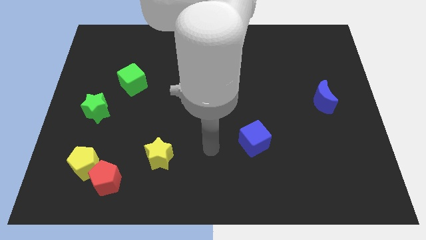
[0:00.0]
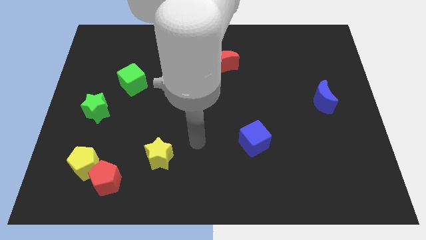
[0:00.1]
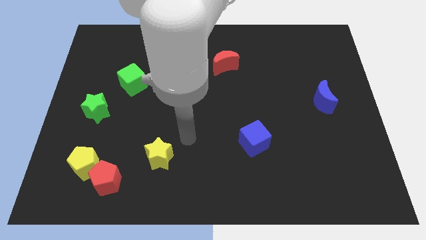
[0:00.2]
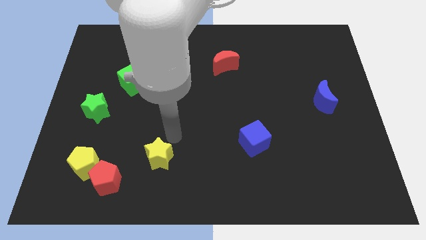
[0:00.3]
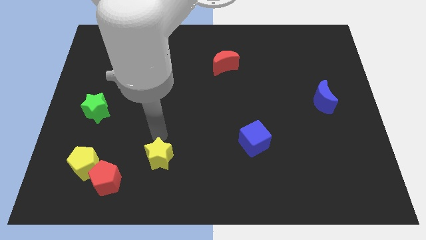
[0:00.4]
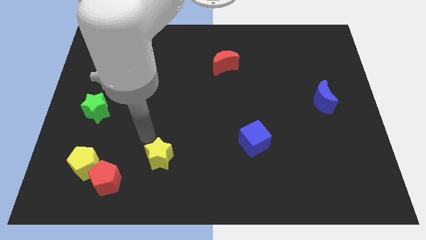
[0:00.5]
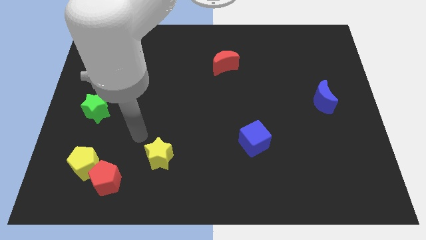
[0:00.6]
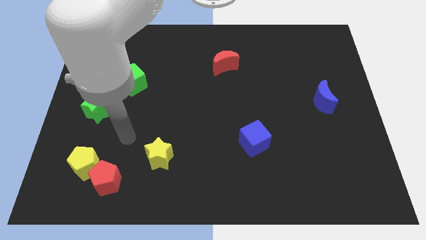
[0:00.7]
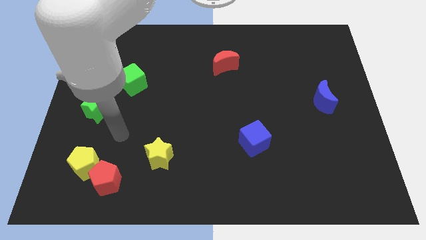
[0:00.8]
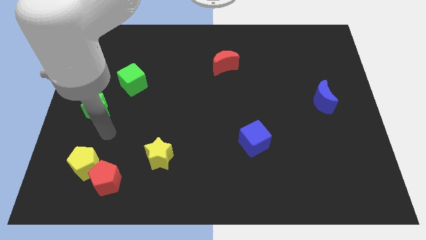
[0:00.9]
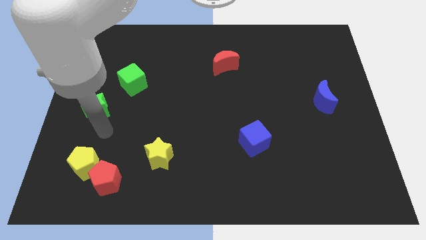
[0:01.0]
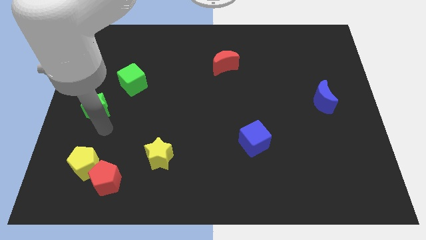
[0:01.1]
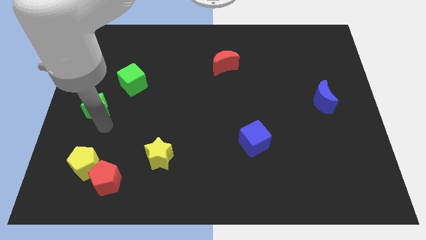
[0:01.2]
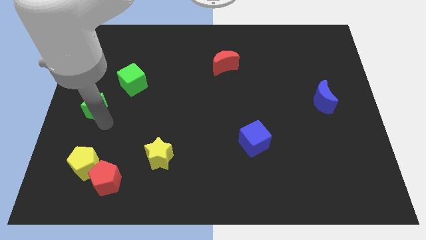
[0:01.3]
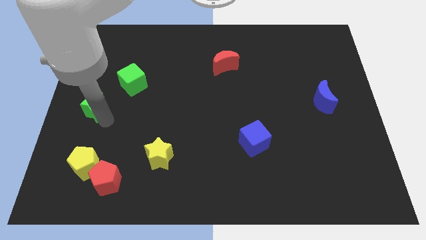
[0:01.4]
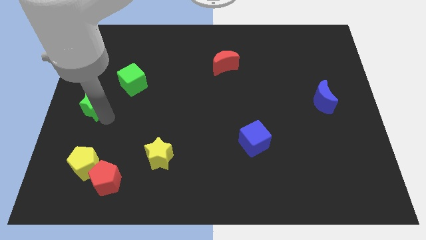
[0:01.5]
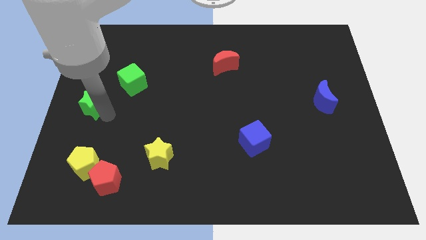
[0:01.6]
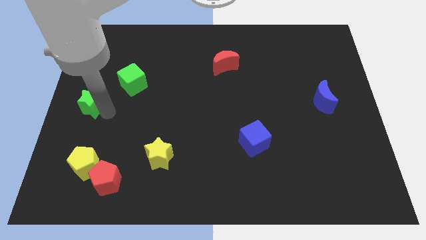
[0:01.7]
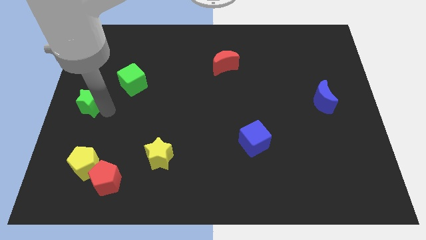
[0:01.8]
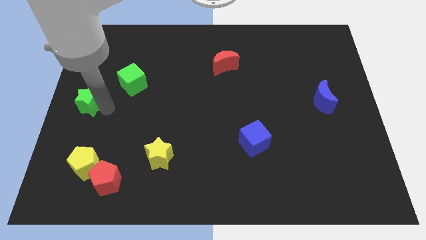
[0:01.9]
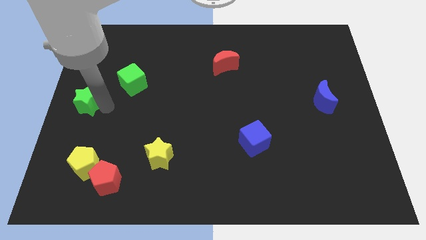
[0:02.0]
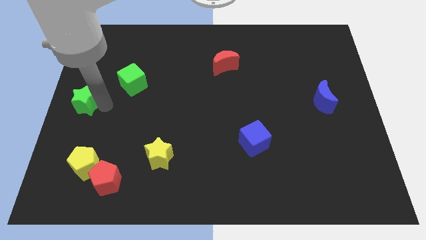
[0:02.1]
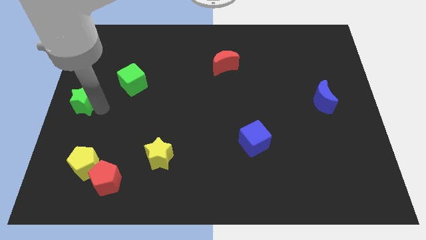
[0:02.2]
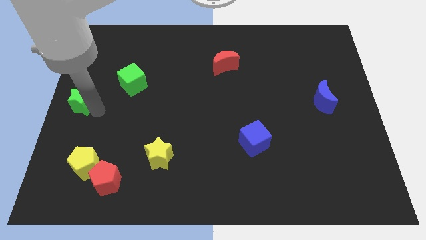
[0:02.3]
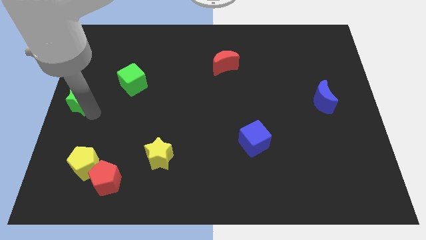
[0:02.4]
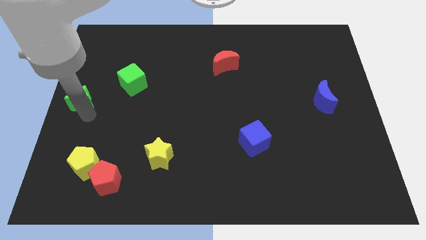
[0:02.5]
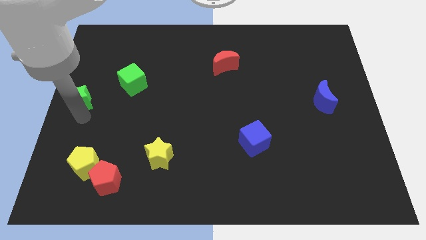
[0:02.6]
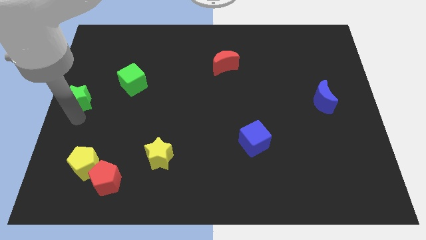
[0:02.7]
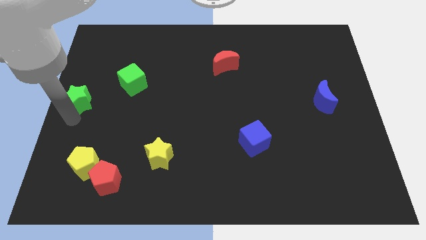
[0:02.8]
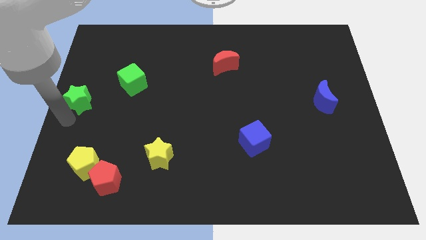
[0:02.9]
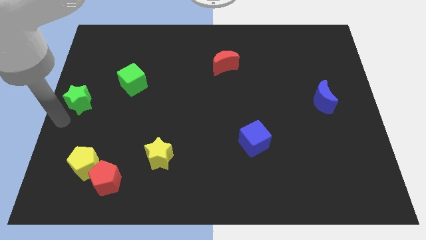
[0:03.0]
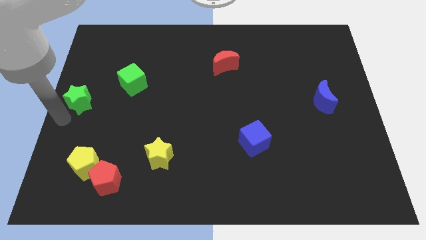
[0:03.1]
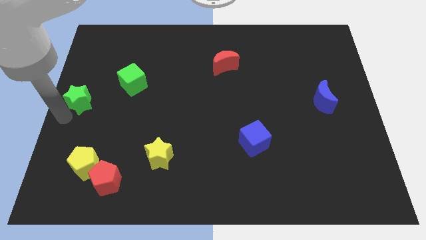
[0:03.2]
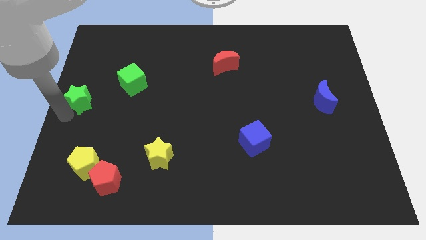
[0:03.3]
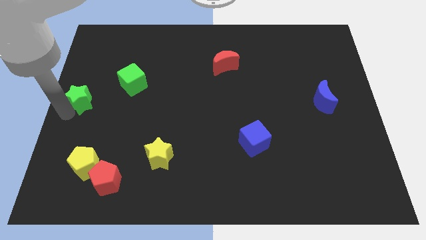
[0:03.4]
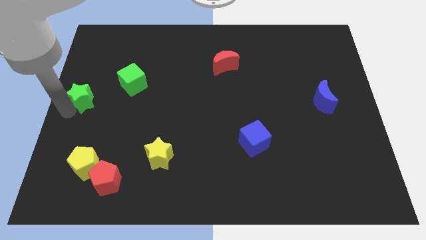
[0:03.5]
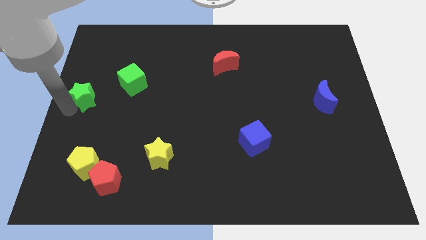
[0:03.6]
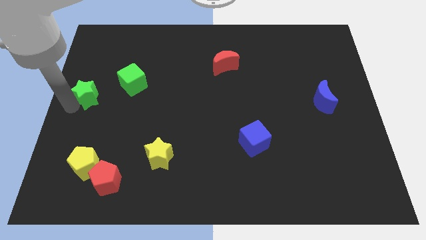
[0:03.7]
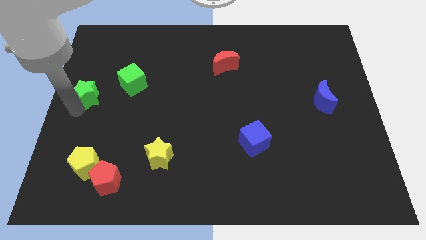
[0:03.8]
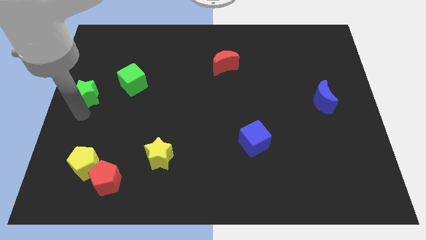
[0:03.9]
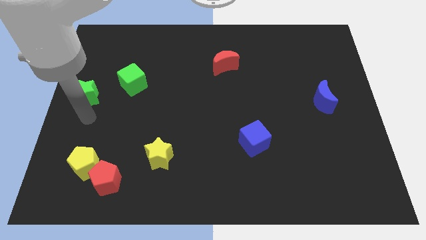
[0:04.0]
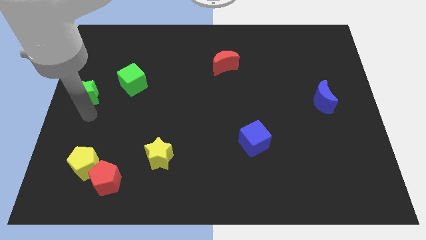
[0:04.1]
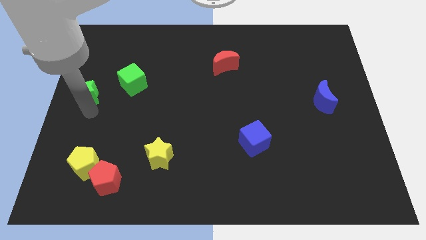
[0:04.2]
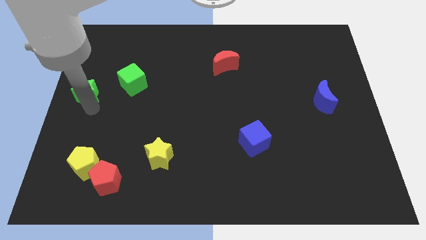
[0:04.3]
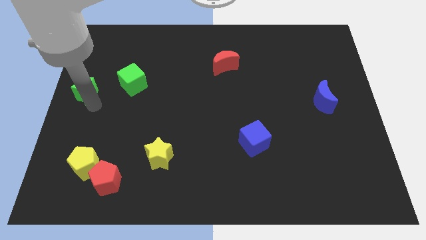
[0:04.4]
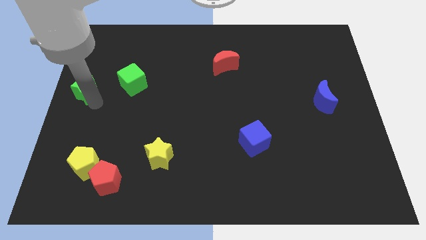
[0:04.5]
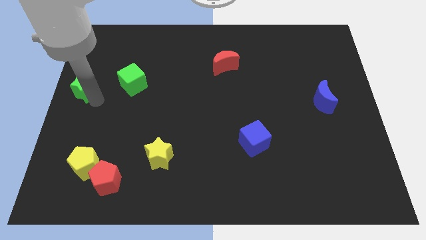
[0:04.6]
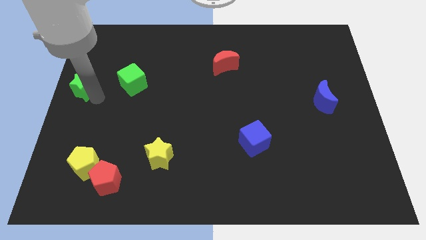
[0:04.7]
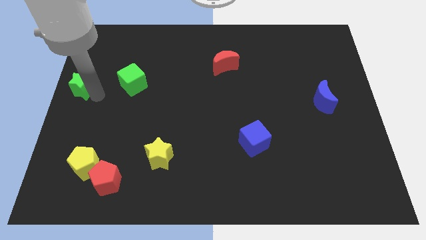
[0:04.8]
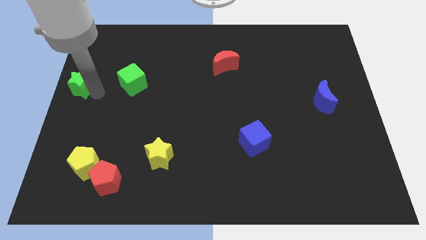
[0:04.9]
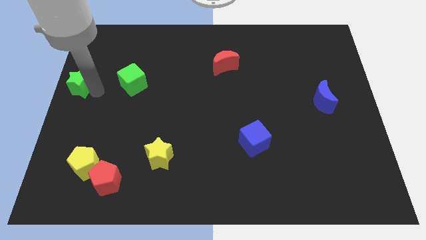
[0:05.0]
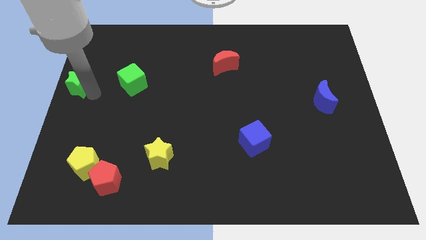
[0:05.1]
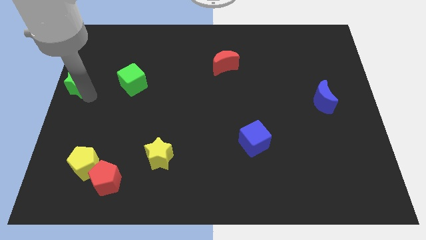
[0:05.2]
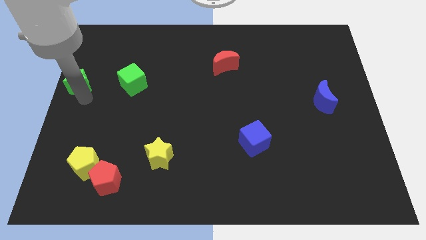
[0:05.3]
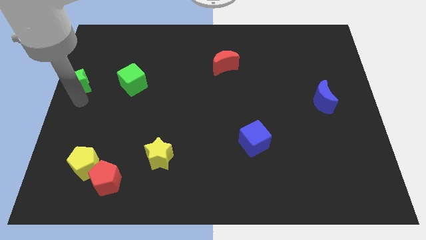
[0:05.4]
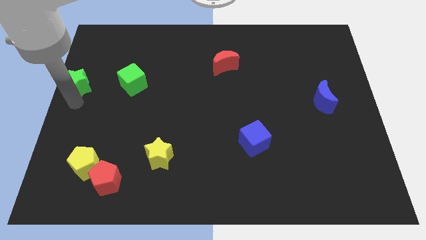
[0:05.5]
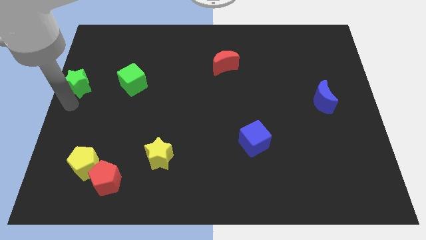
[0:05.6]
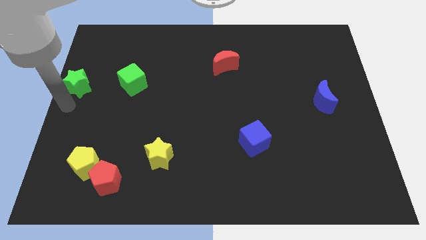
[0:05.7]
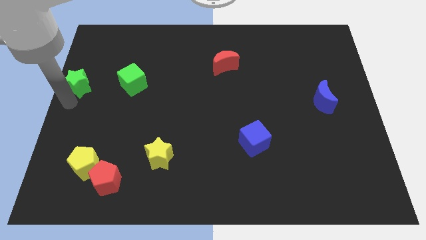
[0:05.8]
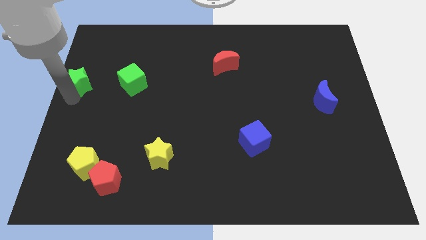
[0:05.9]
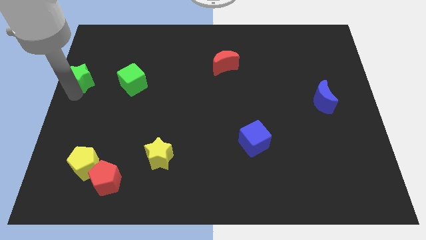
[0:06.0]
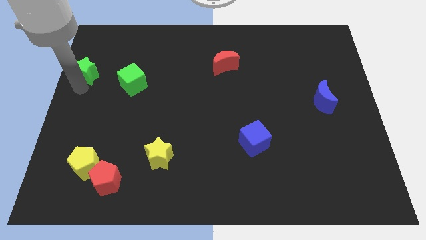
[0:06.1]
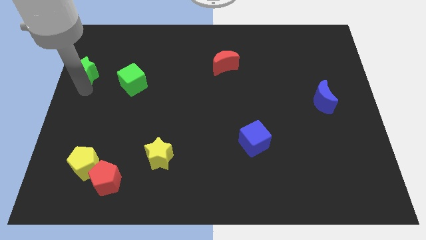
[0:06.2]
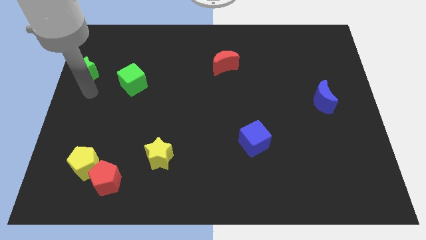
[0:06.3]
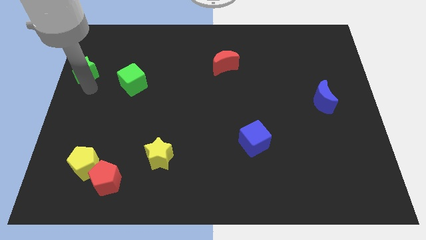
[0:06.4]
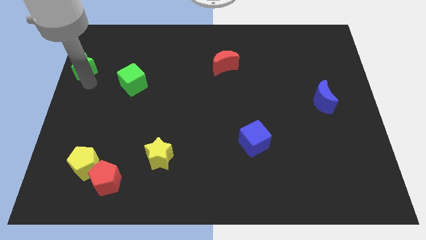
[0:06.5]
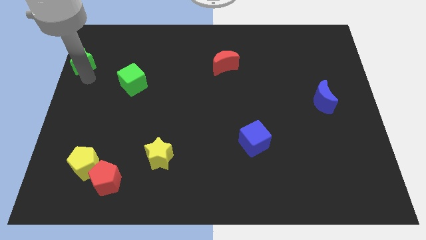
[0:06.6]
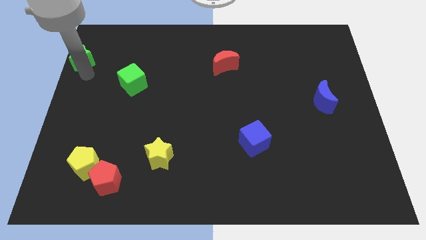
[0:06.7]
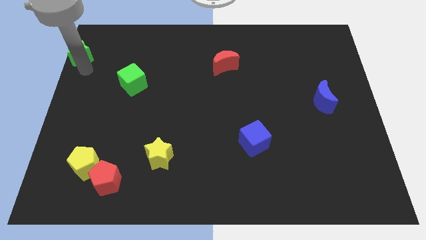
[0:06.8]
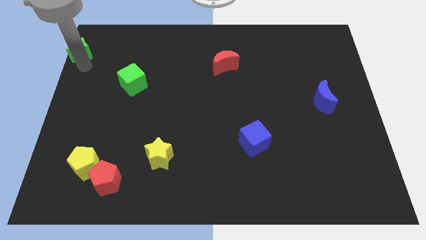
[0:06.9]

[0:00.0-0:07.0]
put the green star to the top left
